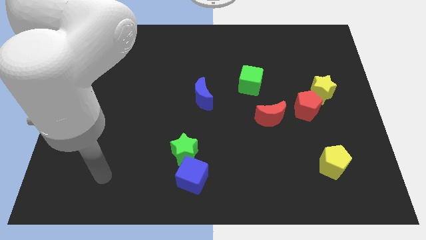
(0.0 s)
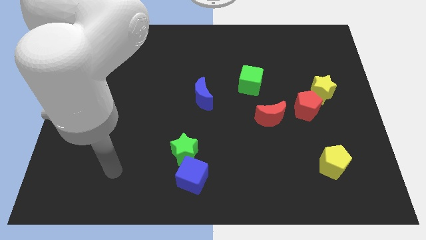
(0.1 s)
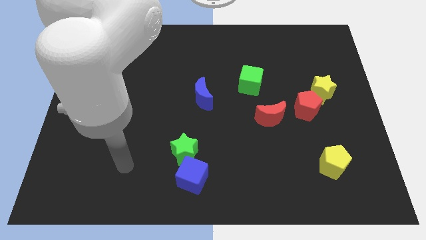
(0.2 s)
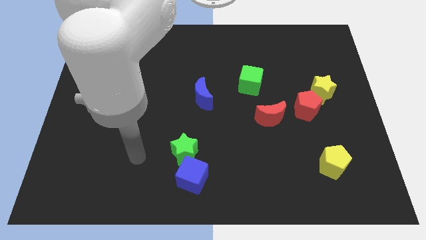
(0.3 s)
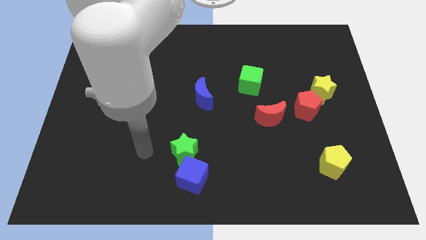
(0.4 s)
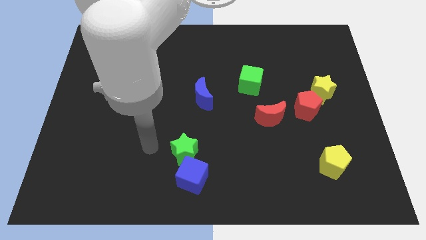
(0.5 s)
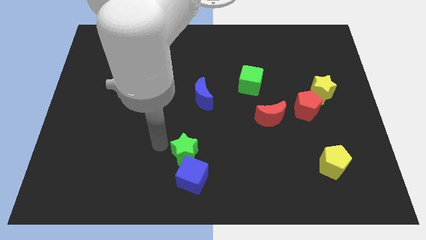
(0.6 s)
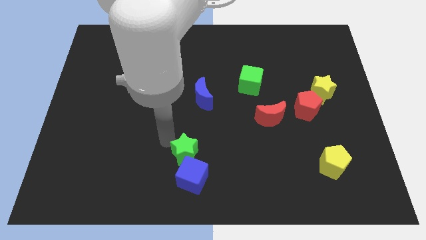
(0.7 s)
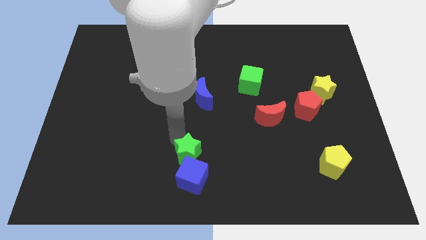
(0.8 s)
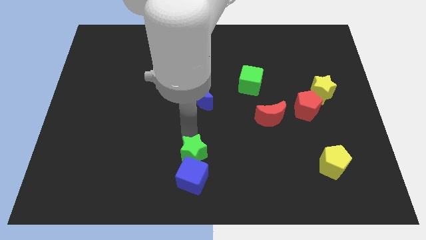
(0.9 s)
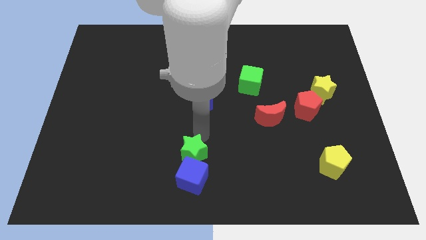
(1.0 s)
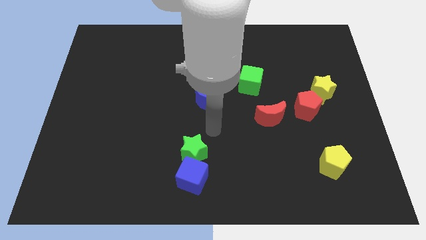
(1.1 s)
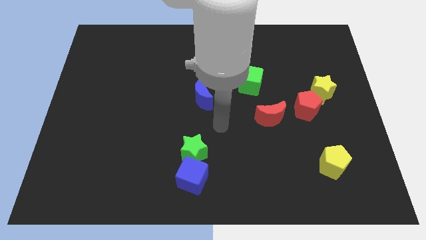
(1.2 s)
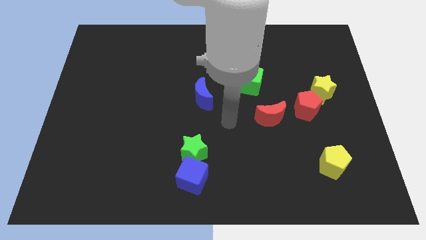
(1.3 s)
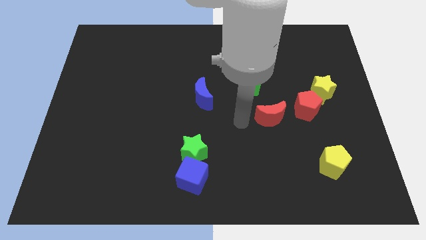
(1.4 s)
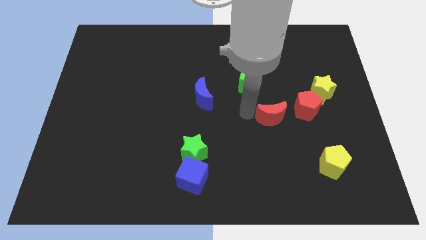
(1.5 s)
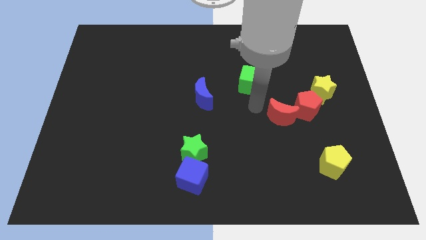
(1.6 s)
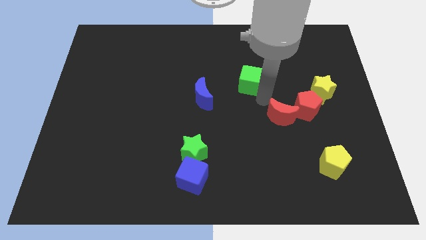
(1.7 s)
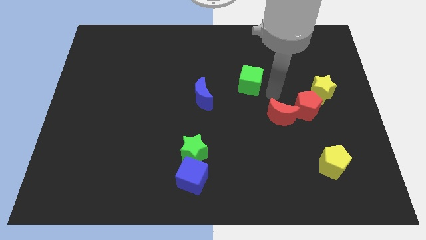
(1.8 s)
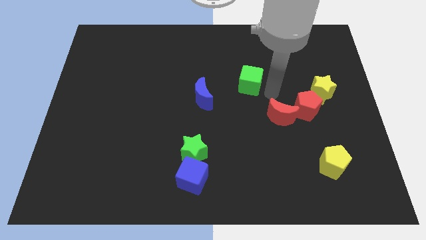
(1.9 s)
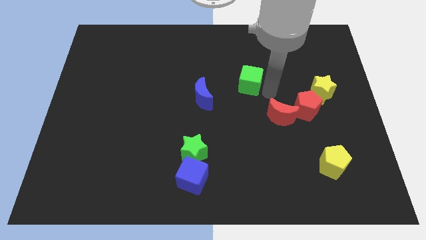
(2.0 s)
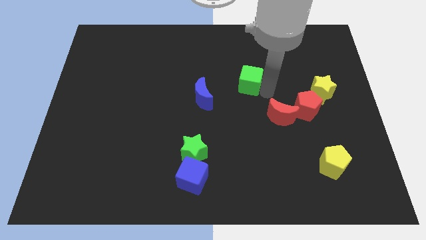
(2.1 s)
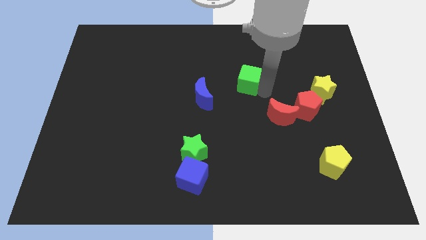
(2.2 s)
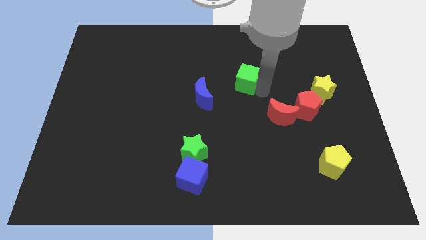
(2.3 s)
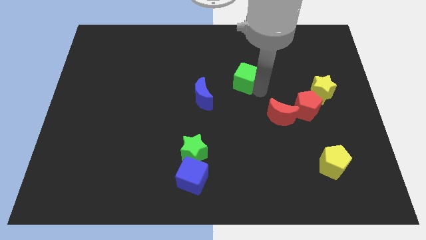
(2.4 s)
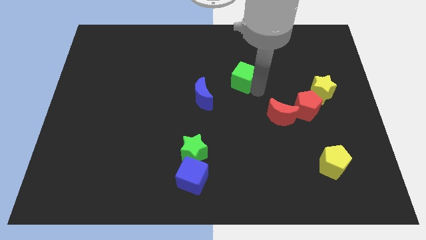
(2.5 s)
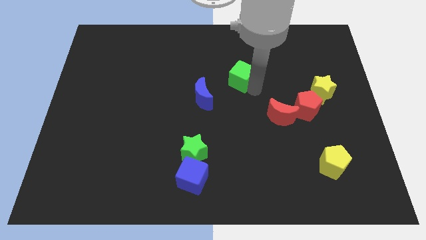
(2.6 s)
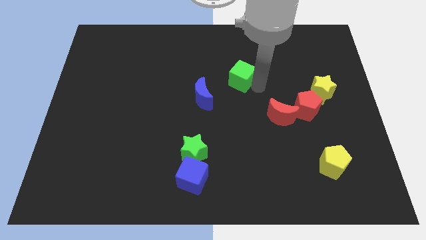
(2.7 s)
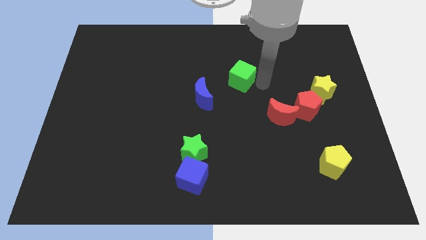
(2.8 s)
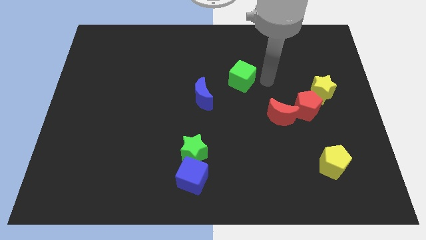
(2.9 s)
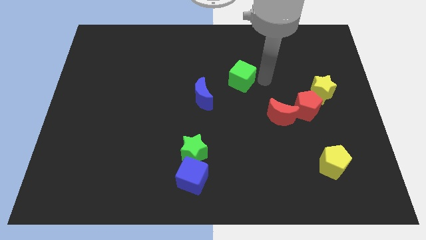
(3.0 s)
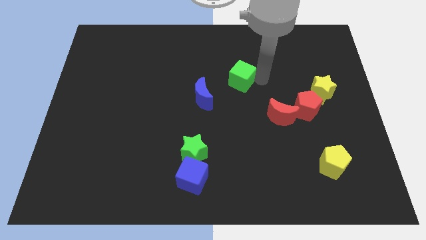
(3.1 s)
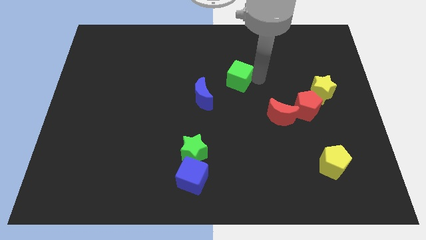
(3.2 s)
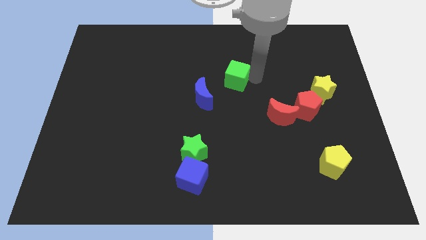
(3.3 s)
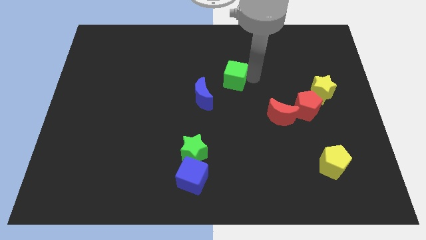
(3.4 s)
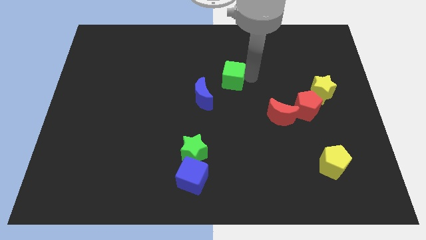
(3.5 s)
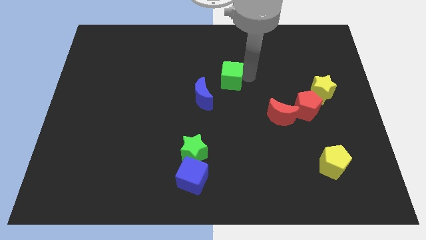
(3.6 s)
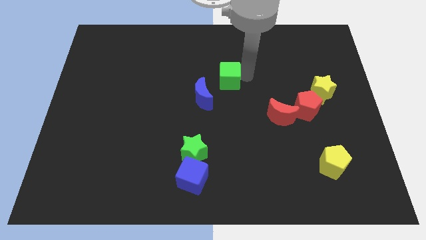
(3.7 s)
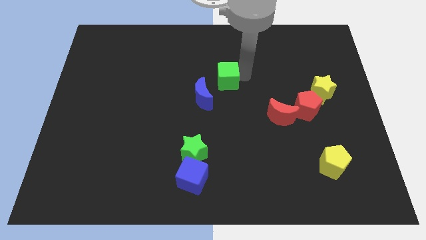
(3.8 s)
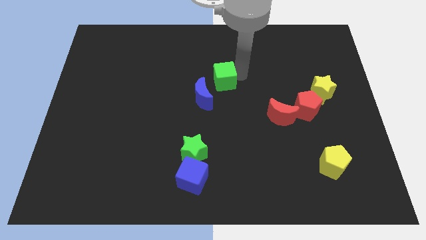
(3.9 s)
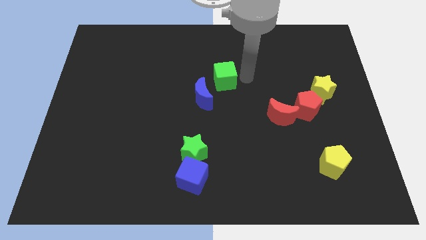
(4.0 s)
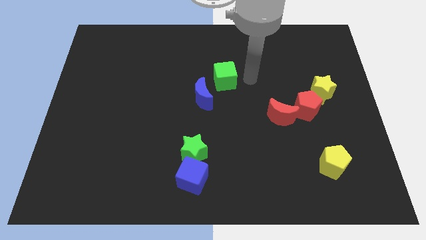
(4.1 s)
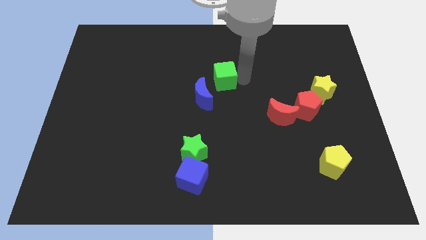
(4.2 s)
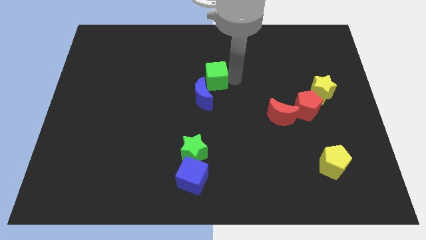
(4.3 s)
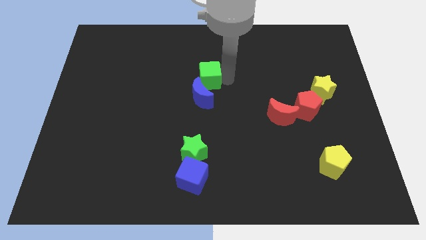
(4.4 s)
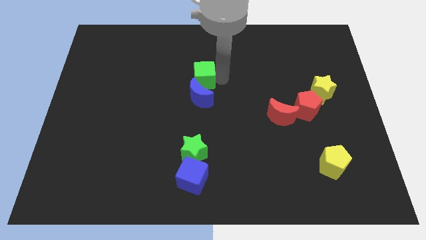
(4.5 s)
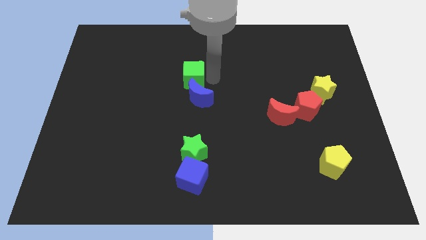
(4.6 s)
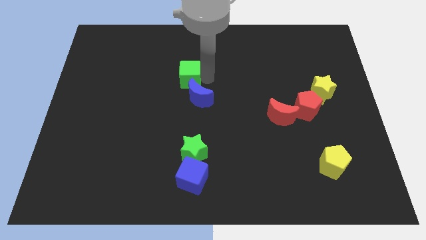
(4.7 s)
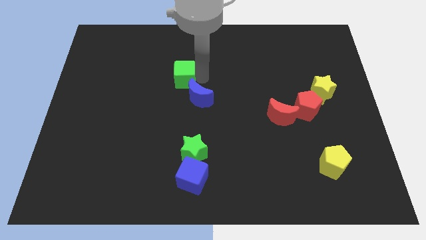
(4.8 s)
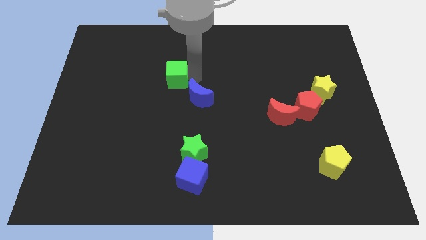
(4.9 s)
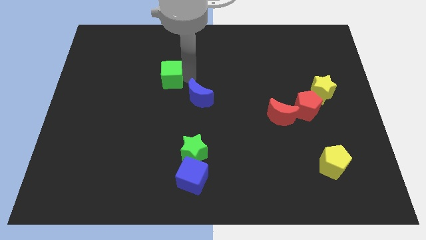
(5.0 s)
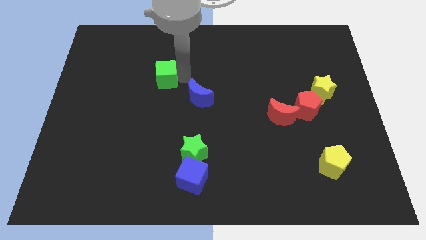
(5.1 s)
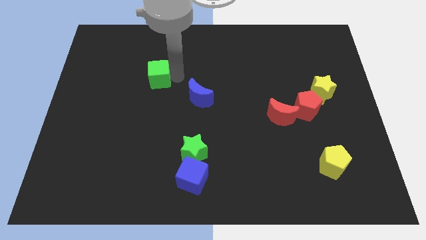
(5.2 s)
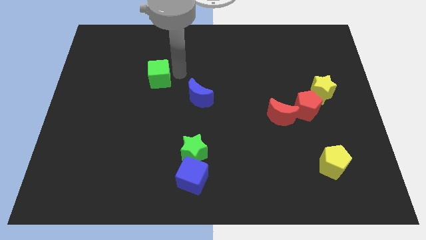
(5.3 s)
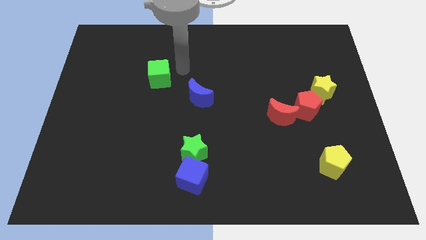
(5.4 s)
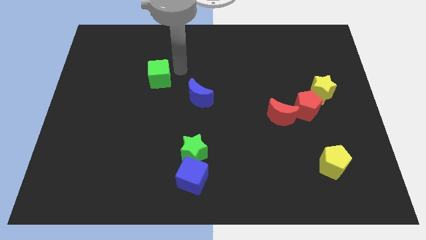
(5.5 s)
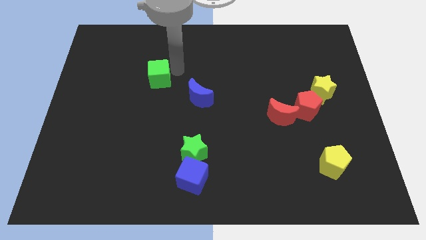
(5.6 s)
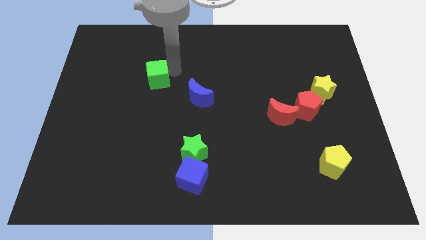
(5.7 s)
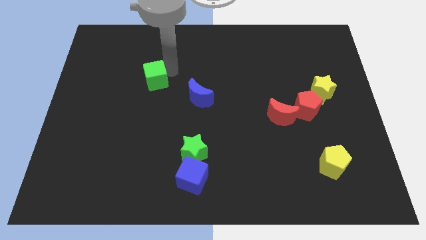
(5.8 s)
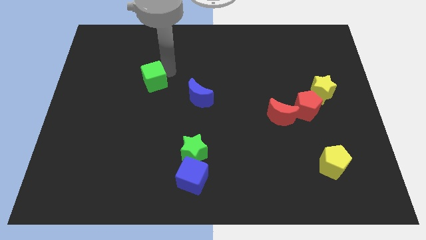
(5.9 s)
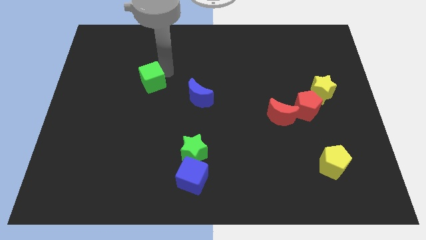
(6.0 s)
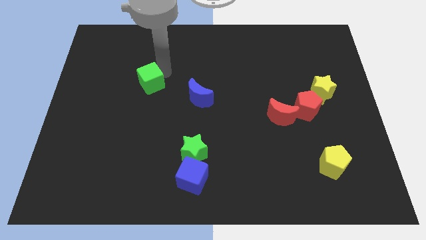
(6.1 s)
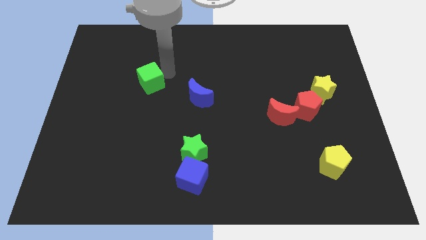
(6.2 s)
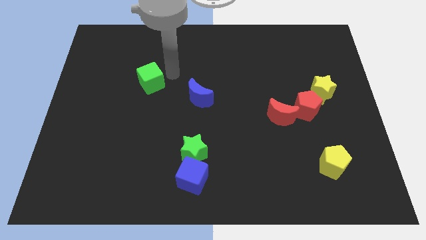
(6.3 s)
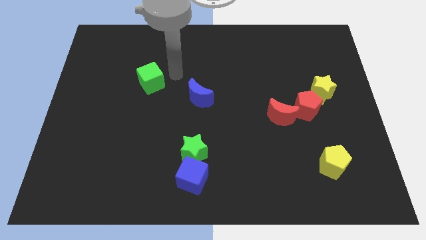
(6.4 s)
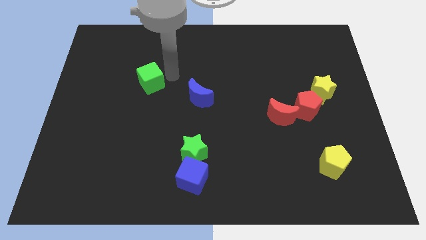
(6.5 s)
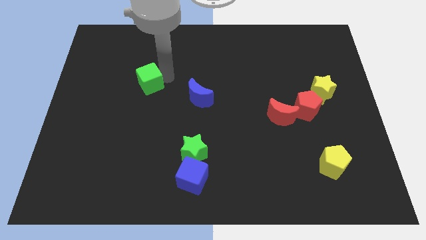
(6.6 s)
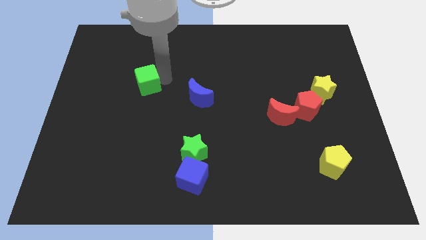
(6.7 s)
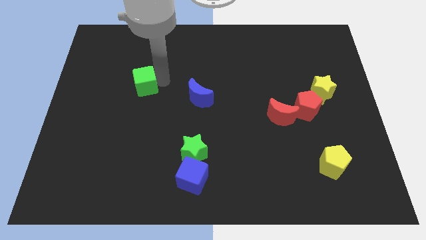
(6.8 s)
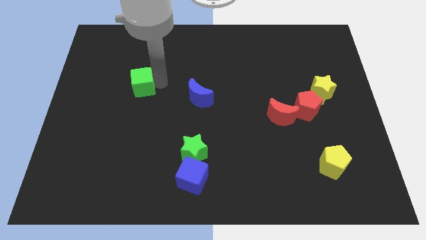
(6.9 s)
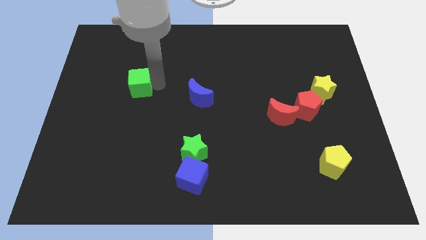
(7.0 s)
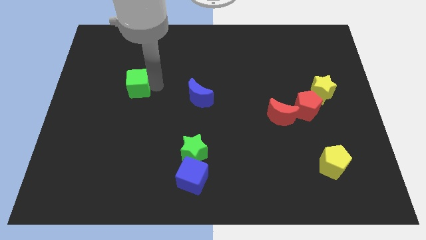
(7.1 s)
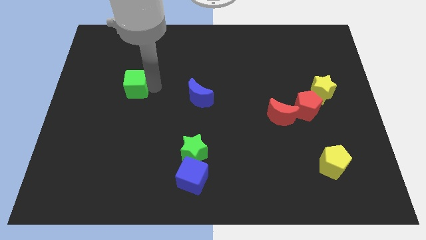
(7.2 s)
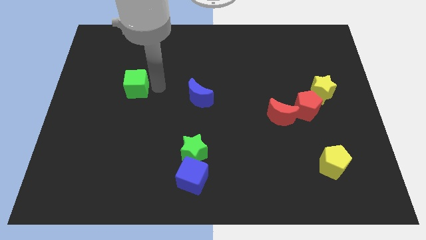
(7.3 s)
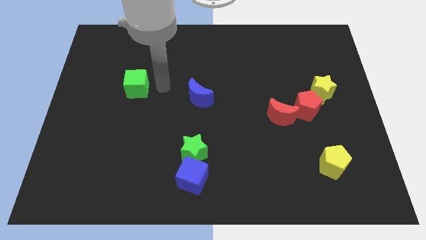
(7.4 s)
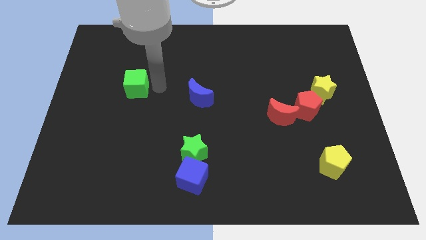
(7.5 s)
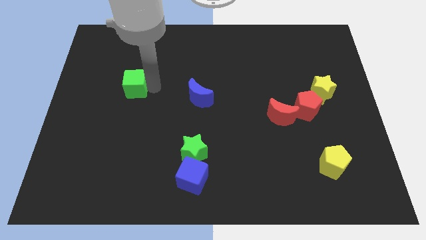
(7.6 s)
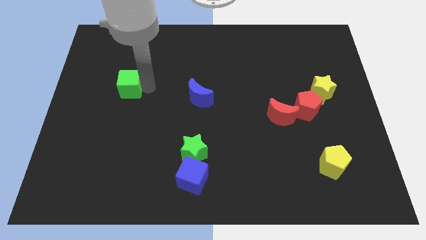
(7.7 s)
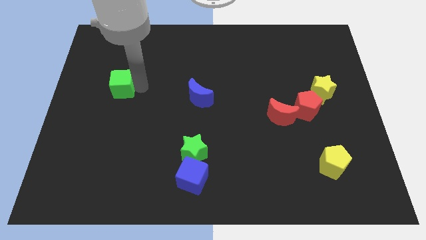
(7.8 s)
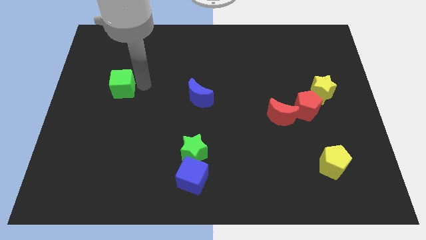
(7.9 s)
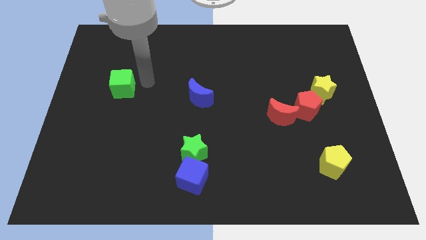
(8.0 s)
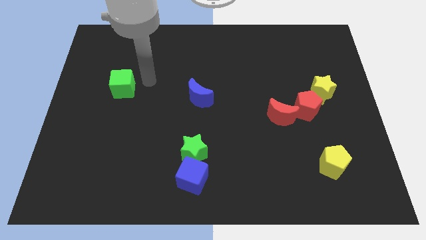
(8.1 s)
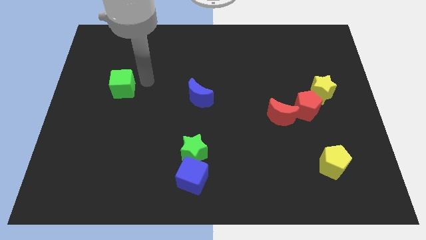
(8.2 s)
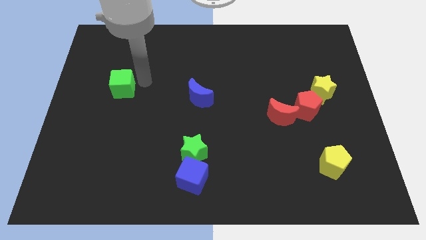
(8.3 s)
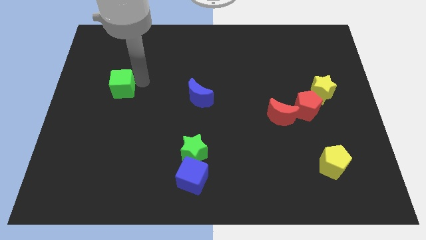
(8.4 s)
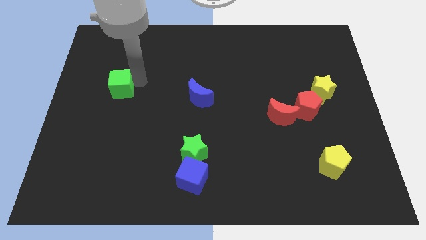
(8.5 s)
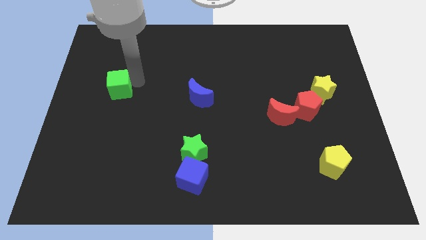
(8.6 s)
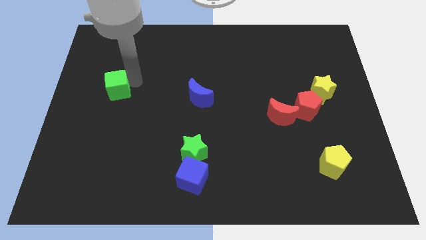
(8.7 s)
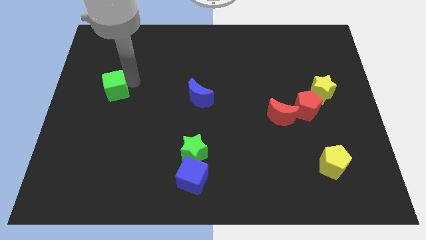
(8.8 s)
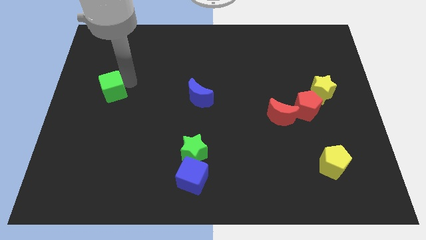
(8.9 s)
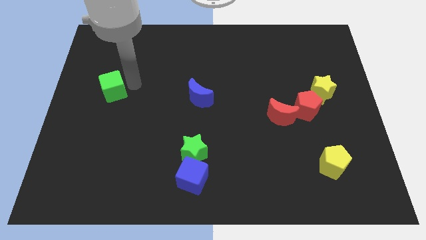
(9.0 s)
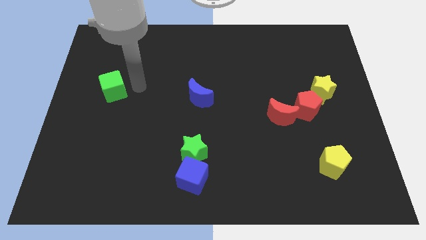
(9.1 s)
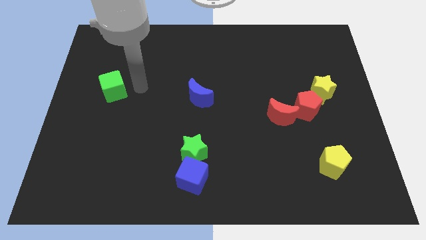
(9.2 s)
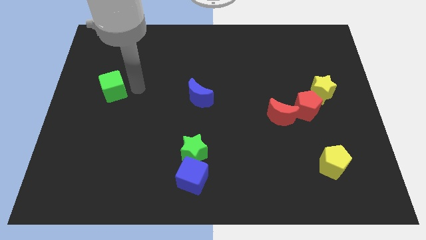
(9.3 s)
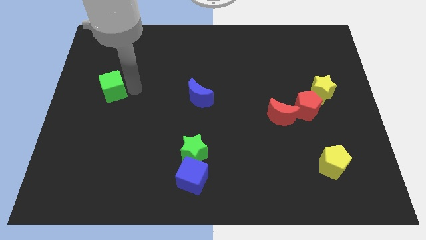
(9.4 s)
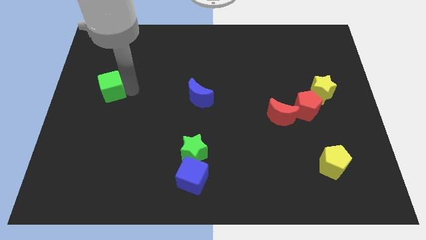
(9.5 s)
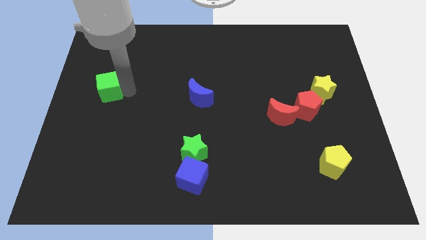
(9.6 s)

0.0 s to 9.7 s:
push the green cube to the center left
